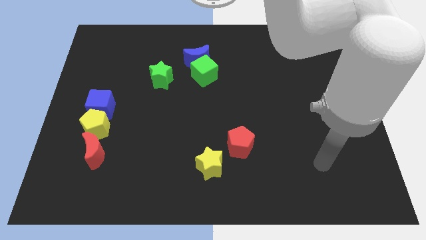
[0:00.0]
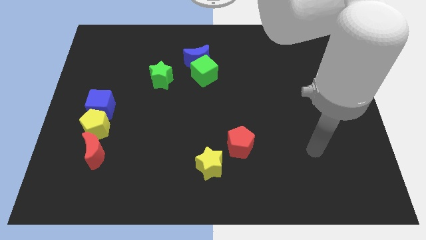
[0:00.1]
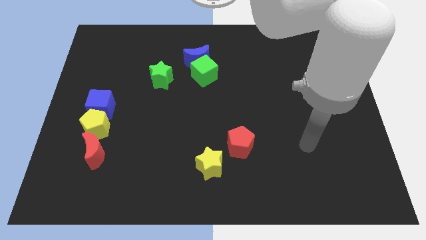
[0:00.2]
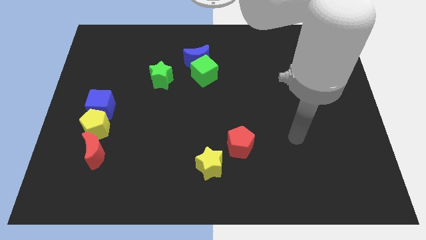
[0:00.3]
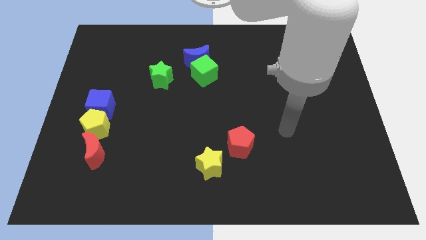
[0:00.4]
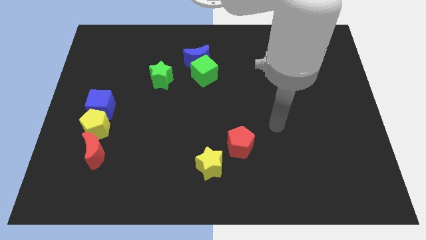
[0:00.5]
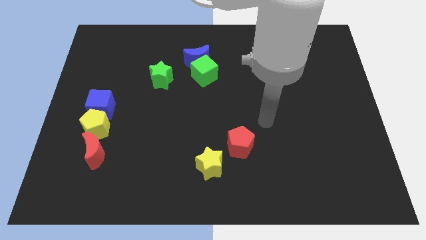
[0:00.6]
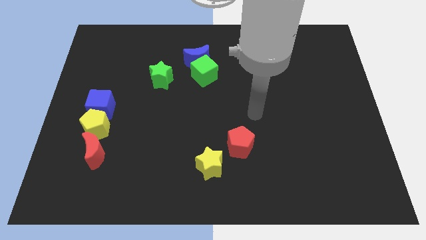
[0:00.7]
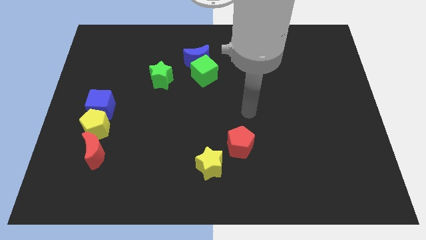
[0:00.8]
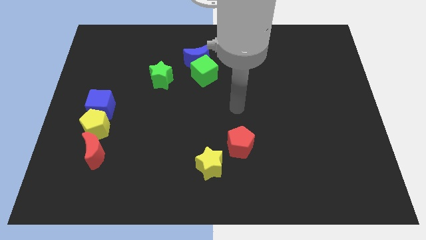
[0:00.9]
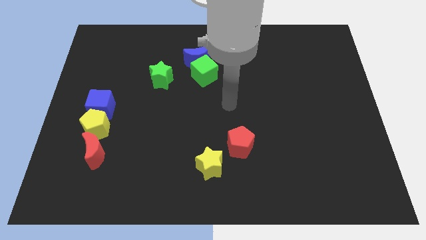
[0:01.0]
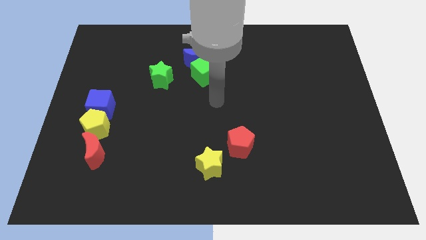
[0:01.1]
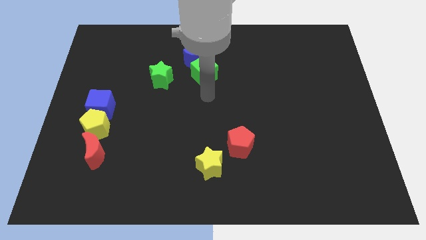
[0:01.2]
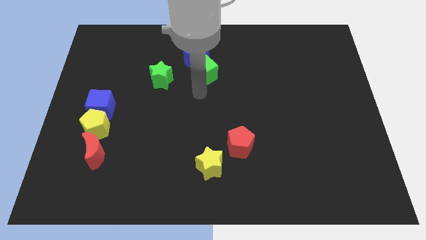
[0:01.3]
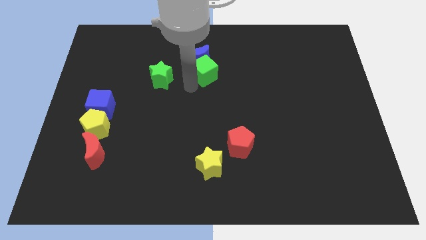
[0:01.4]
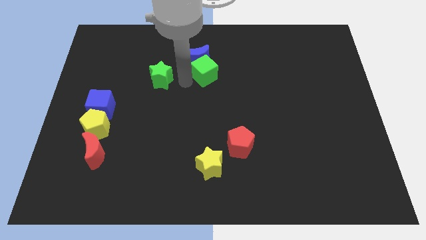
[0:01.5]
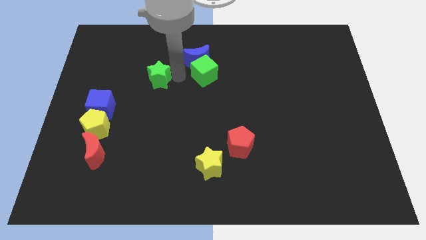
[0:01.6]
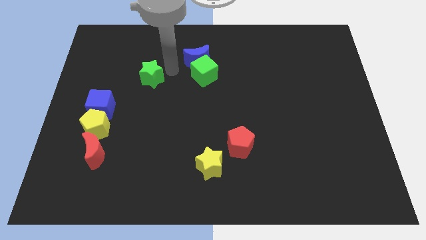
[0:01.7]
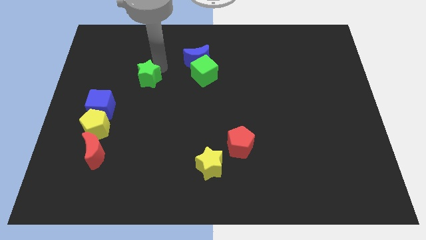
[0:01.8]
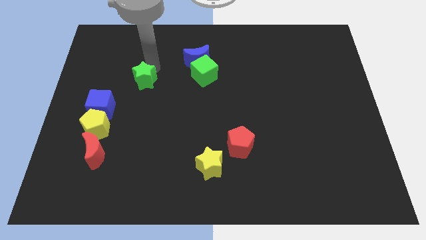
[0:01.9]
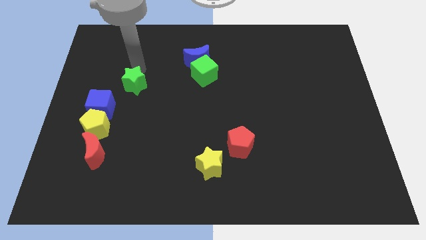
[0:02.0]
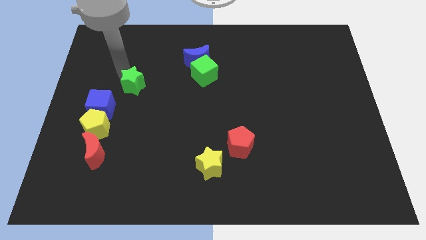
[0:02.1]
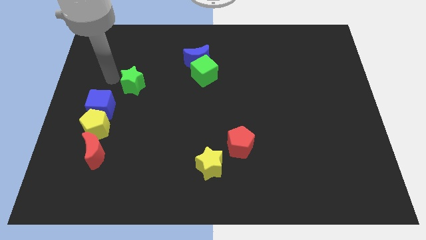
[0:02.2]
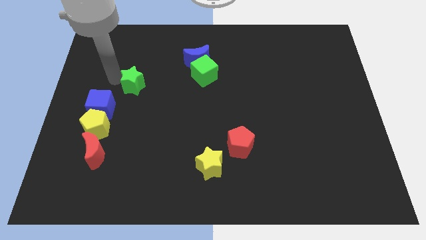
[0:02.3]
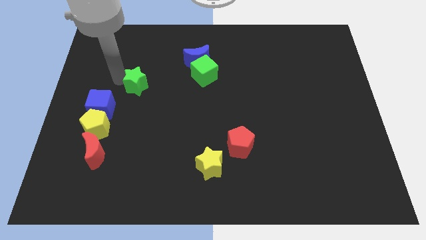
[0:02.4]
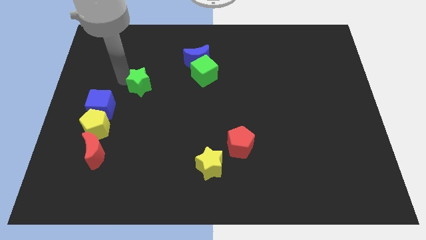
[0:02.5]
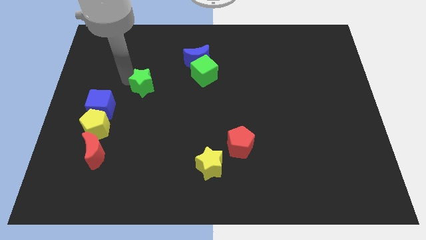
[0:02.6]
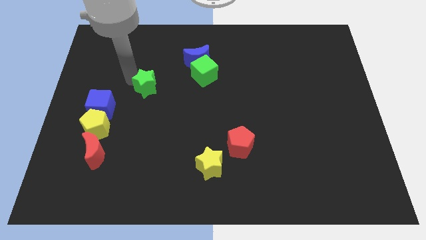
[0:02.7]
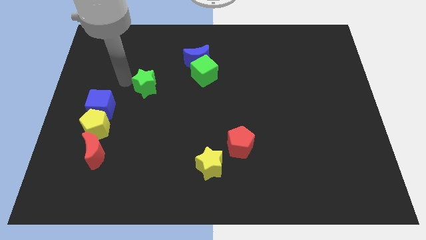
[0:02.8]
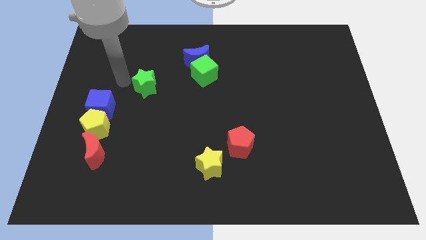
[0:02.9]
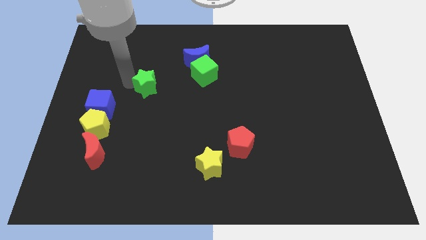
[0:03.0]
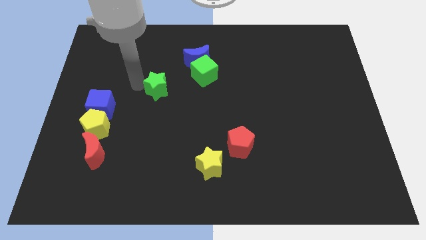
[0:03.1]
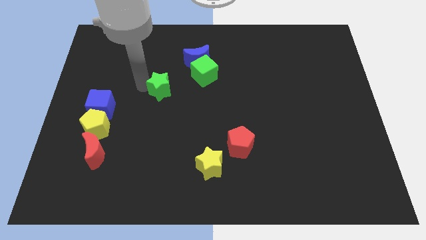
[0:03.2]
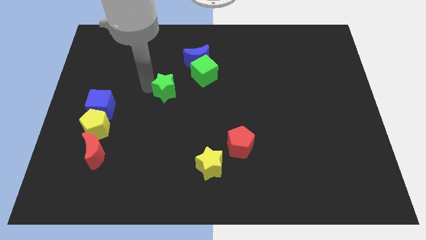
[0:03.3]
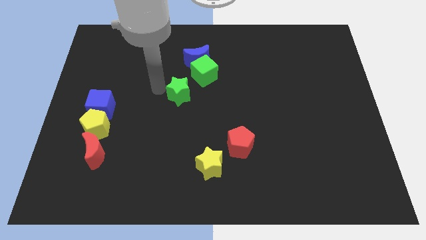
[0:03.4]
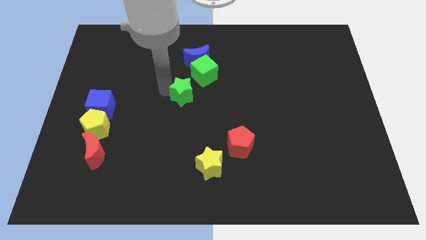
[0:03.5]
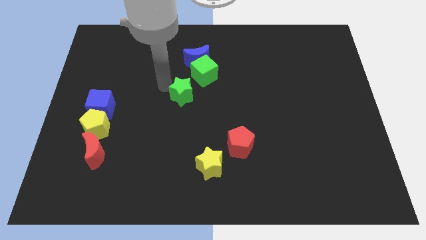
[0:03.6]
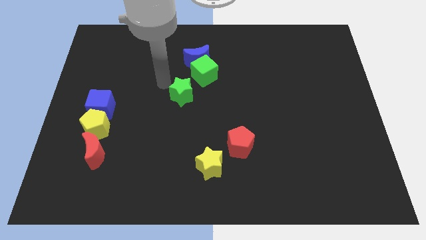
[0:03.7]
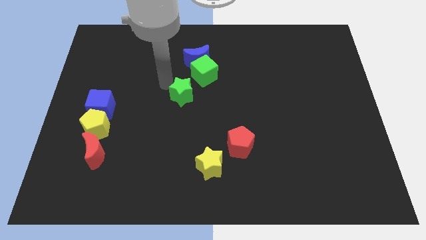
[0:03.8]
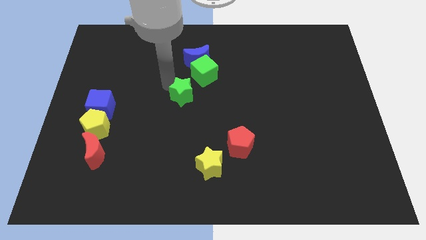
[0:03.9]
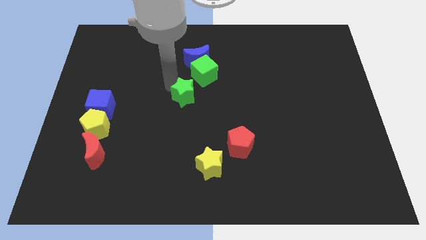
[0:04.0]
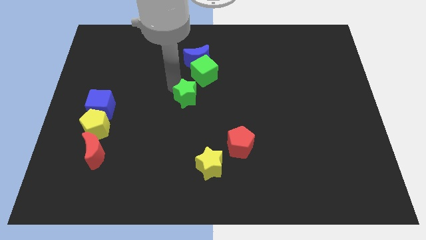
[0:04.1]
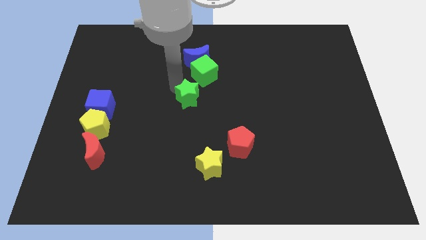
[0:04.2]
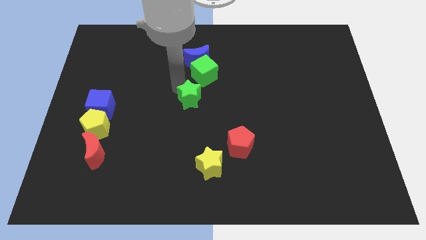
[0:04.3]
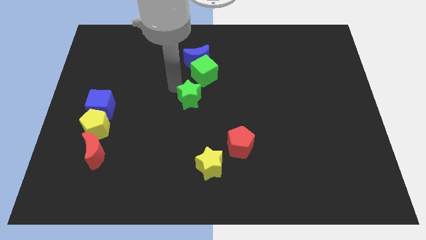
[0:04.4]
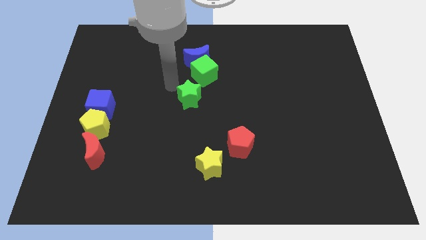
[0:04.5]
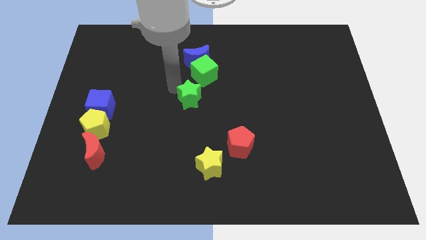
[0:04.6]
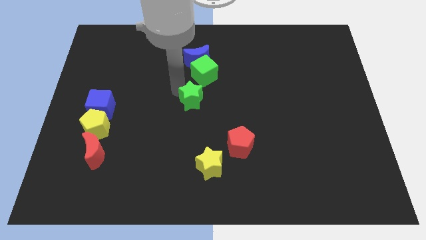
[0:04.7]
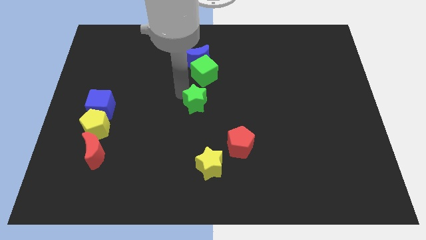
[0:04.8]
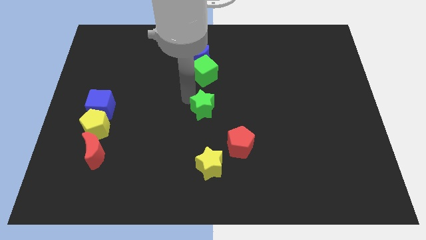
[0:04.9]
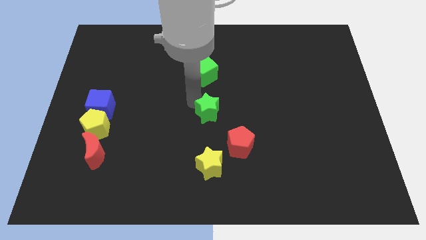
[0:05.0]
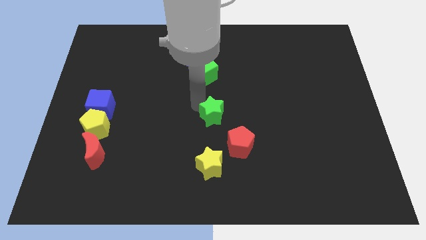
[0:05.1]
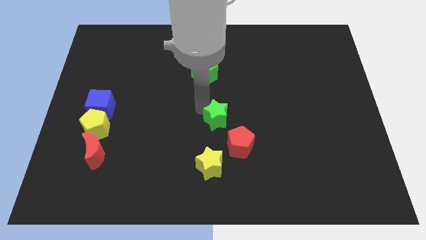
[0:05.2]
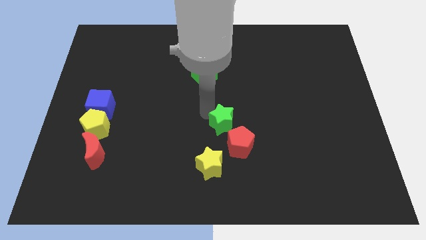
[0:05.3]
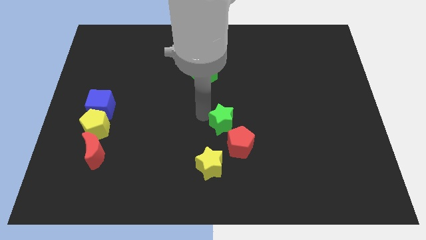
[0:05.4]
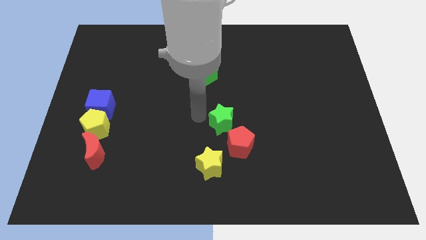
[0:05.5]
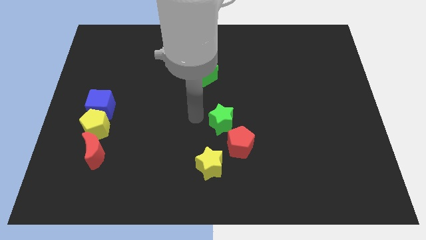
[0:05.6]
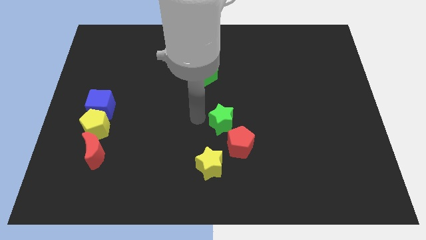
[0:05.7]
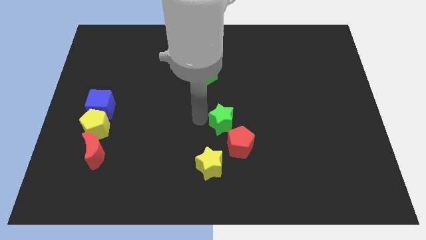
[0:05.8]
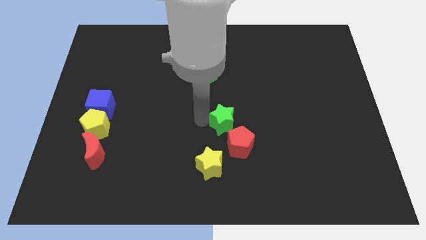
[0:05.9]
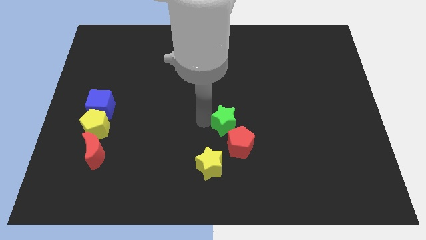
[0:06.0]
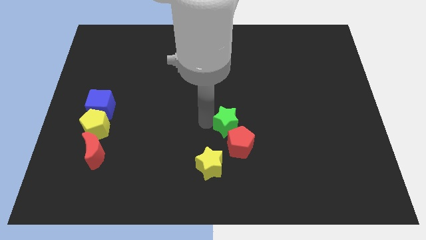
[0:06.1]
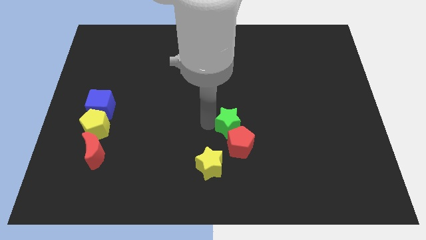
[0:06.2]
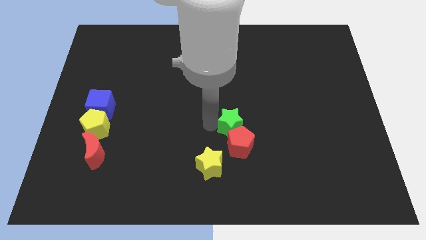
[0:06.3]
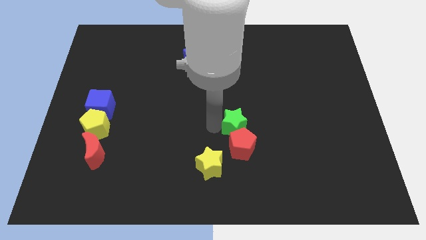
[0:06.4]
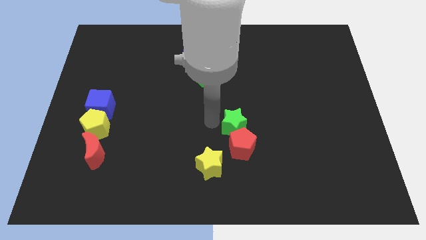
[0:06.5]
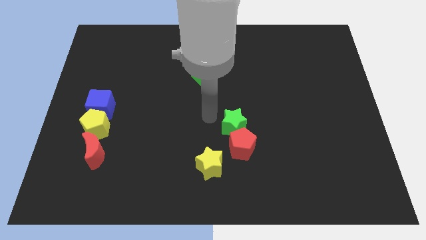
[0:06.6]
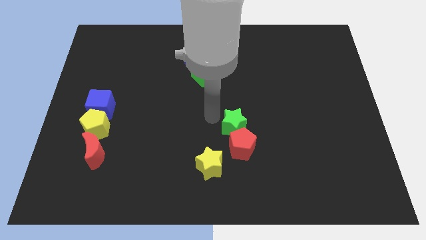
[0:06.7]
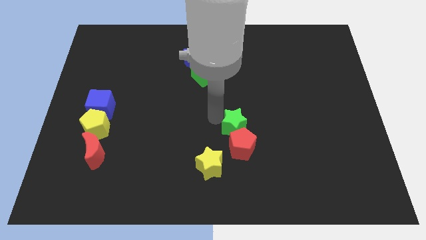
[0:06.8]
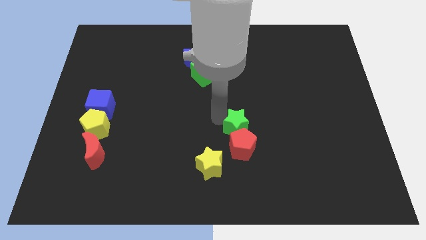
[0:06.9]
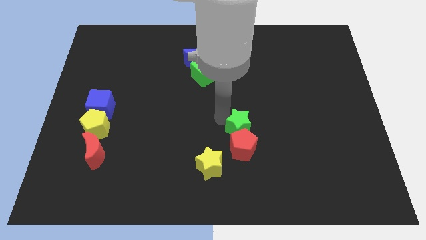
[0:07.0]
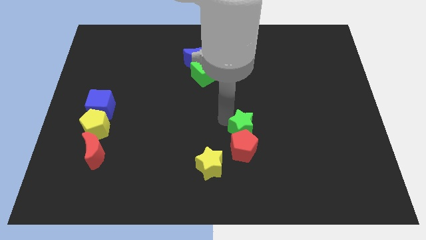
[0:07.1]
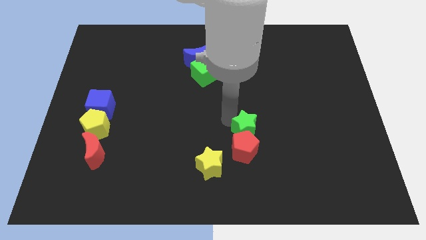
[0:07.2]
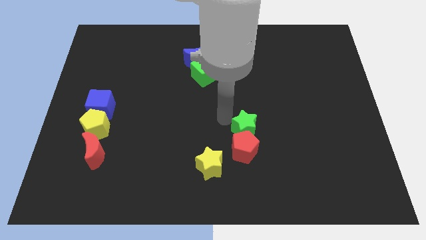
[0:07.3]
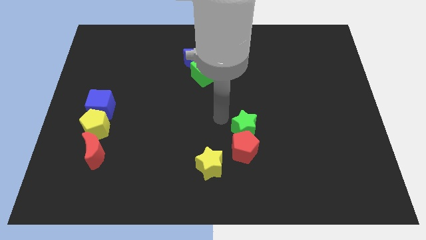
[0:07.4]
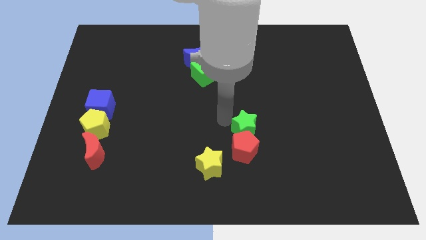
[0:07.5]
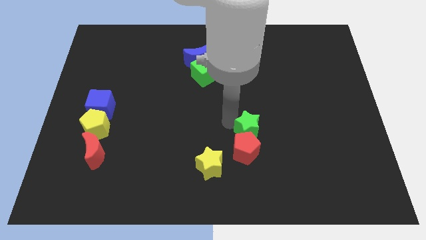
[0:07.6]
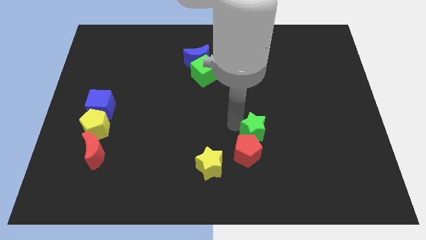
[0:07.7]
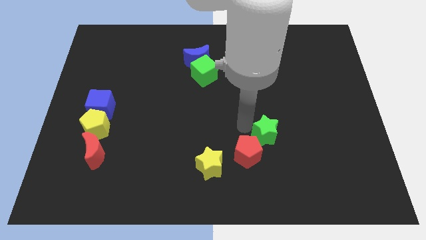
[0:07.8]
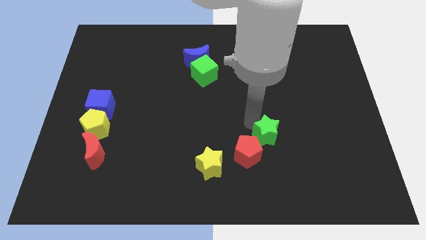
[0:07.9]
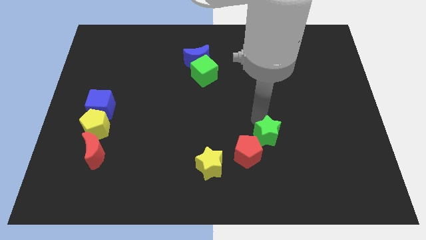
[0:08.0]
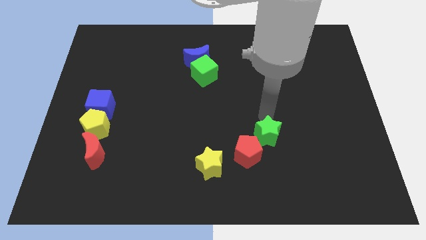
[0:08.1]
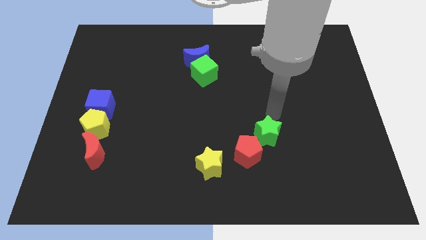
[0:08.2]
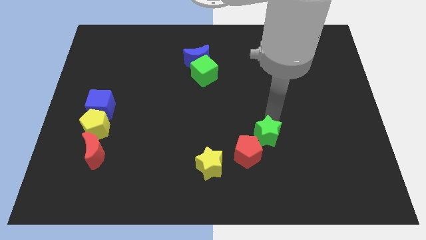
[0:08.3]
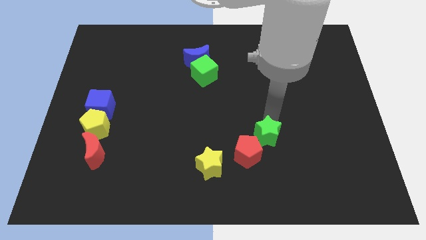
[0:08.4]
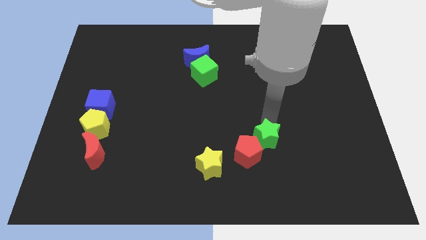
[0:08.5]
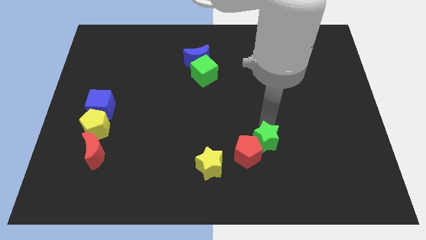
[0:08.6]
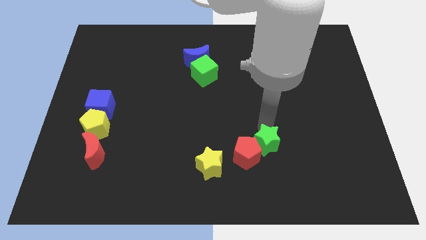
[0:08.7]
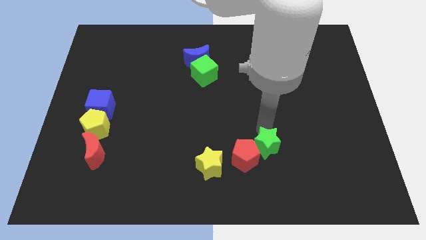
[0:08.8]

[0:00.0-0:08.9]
move the green star just right of the yellow star
